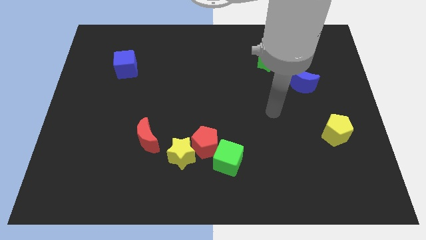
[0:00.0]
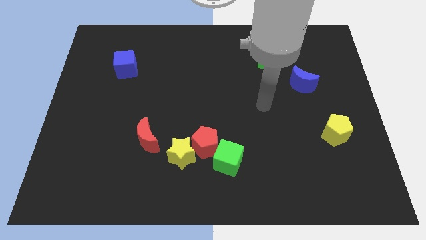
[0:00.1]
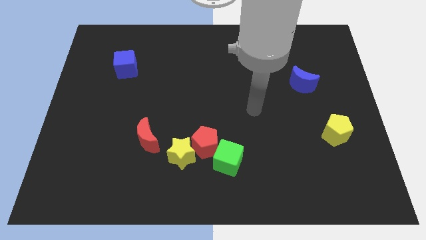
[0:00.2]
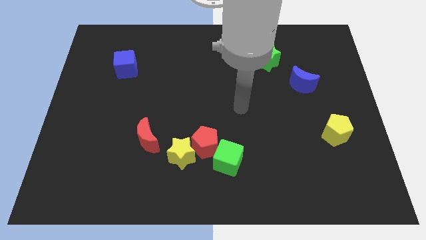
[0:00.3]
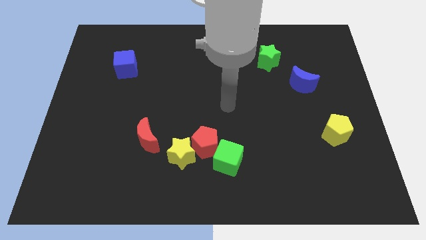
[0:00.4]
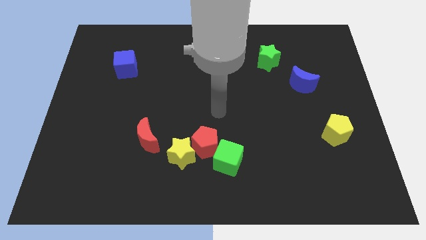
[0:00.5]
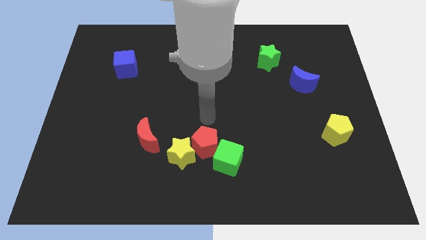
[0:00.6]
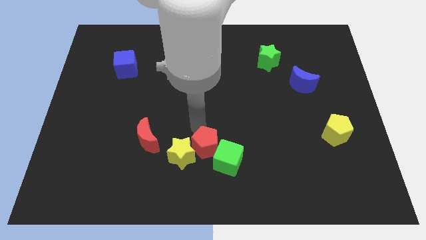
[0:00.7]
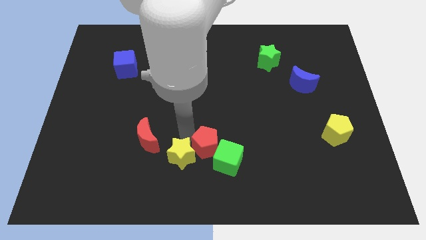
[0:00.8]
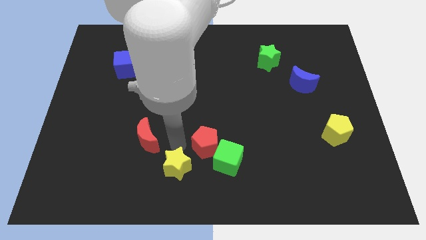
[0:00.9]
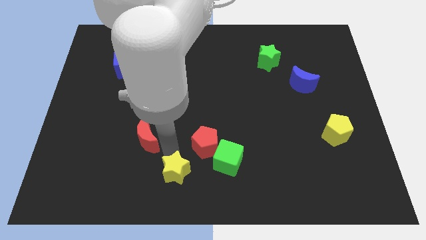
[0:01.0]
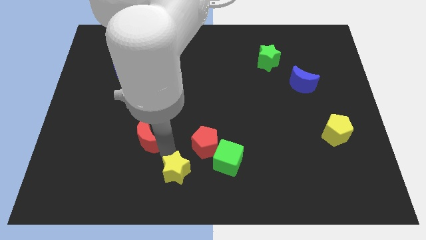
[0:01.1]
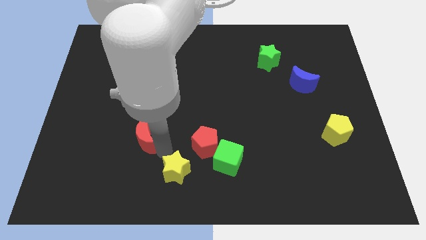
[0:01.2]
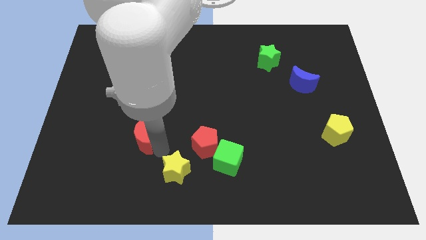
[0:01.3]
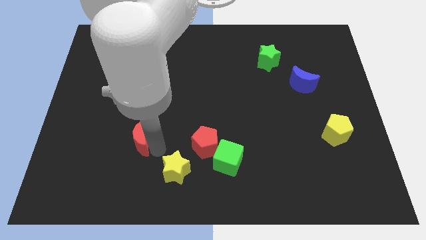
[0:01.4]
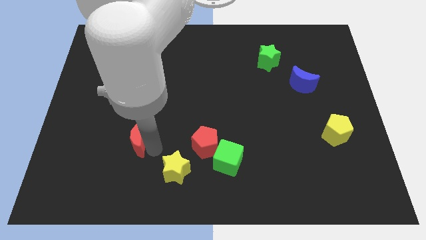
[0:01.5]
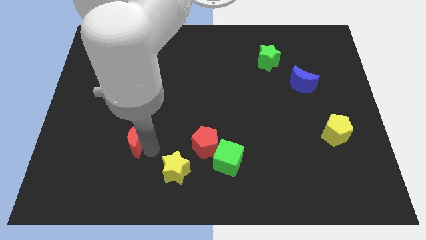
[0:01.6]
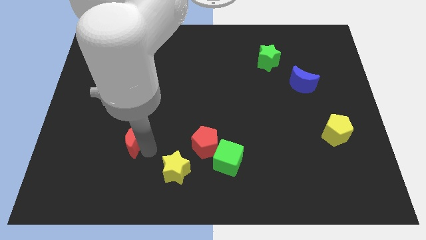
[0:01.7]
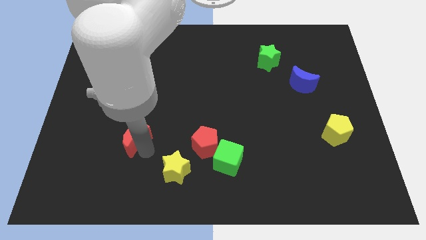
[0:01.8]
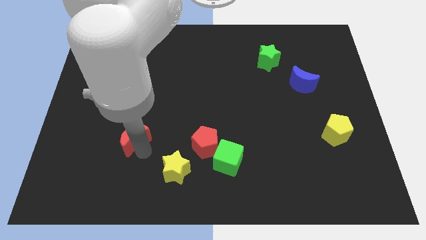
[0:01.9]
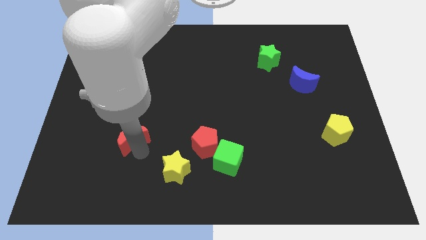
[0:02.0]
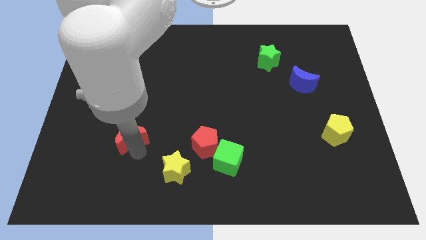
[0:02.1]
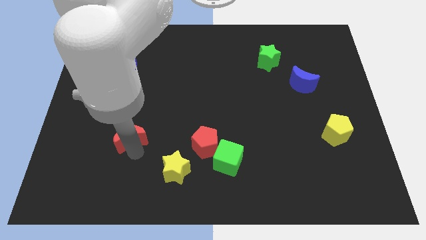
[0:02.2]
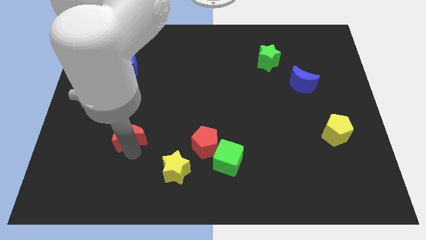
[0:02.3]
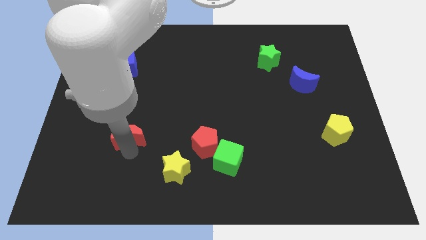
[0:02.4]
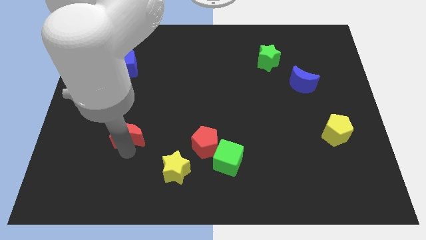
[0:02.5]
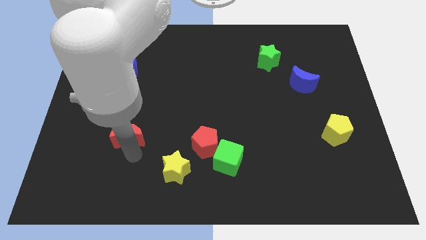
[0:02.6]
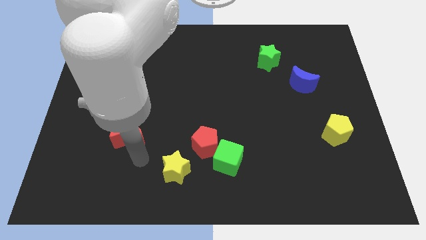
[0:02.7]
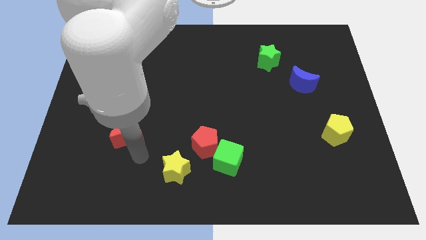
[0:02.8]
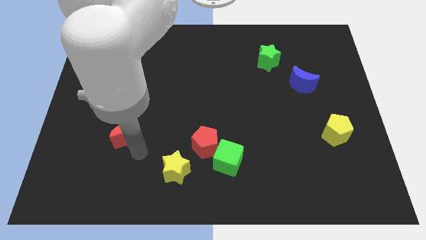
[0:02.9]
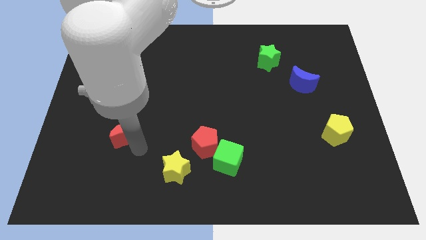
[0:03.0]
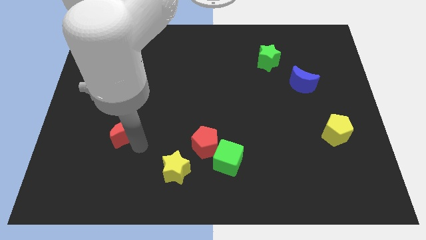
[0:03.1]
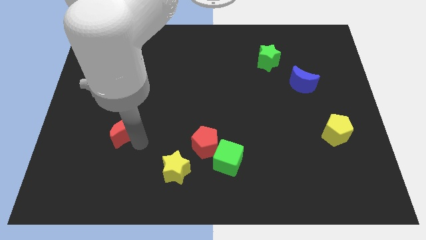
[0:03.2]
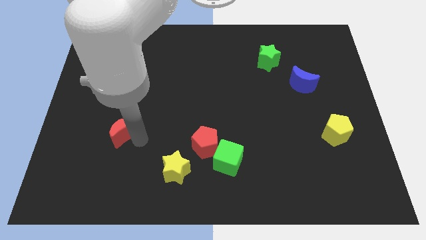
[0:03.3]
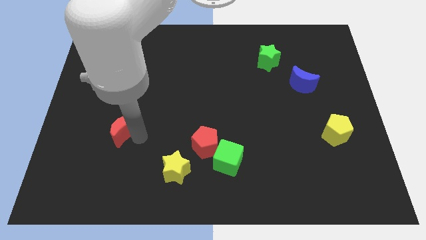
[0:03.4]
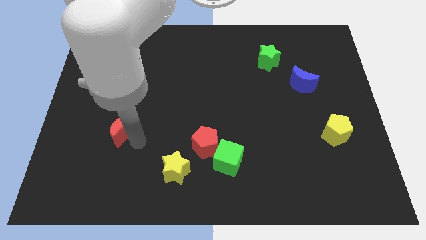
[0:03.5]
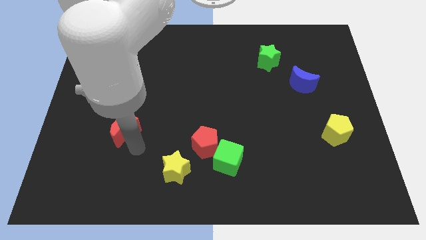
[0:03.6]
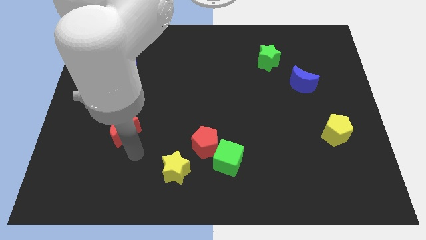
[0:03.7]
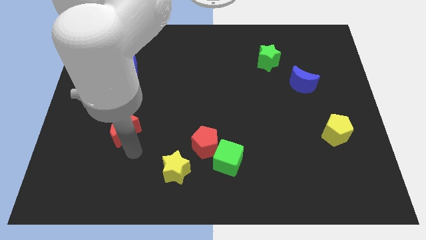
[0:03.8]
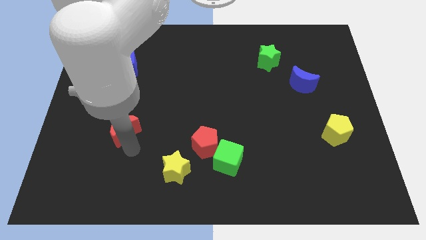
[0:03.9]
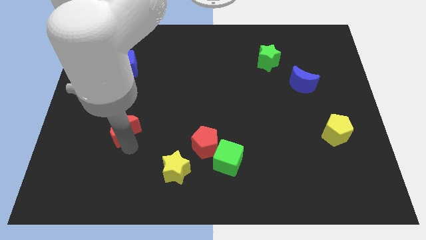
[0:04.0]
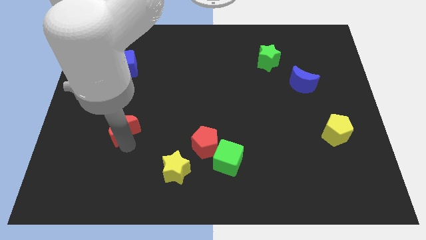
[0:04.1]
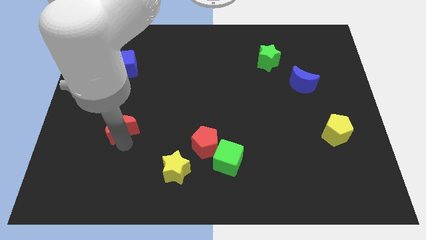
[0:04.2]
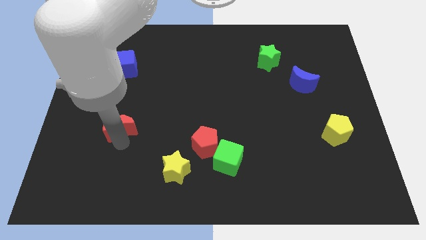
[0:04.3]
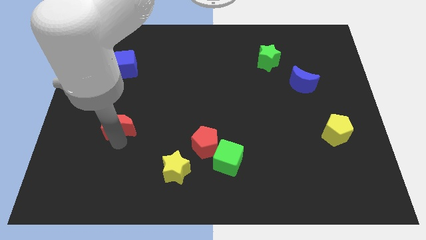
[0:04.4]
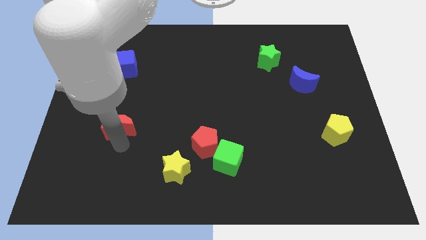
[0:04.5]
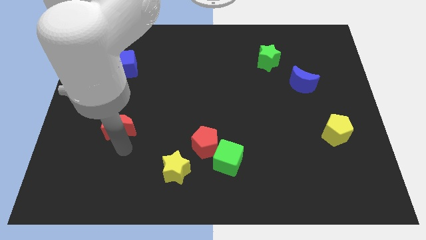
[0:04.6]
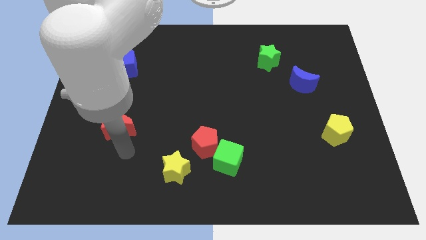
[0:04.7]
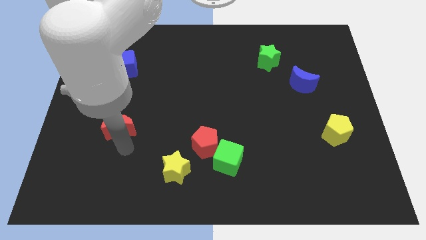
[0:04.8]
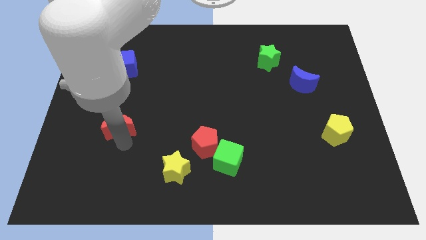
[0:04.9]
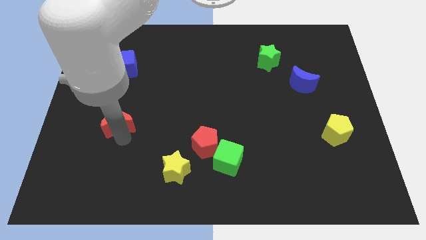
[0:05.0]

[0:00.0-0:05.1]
slightly move the red moon upwards and to the left diagonally

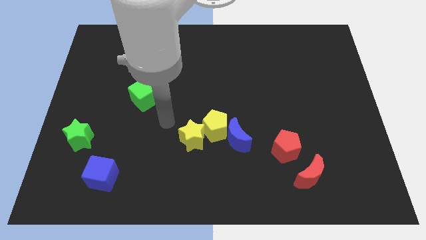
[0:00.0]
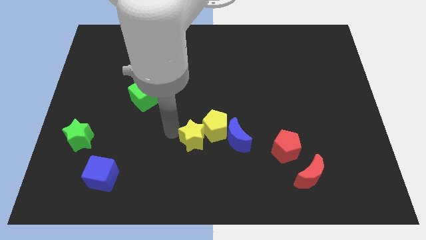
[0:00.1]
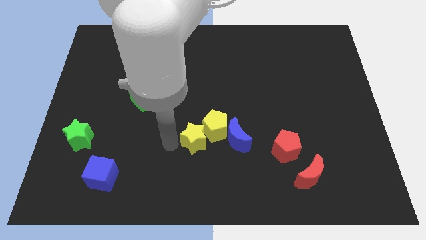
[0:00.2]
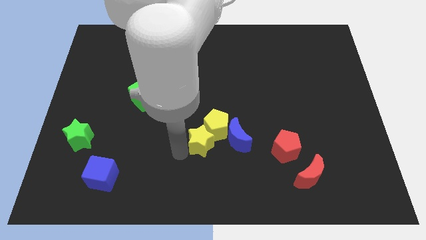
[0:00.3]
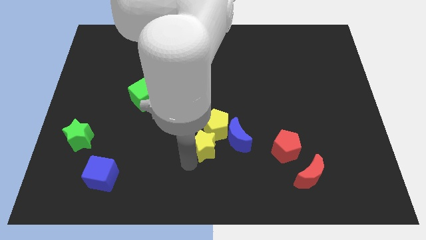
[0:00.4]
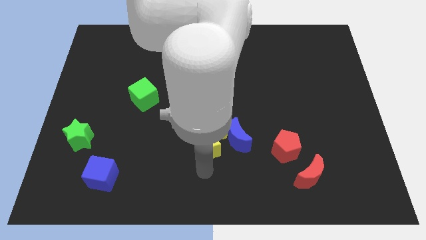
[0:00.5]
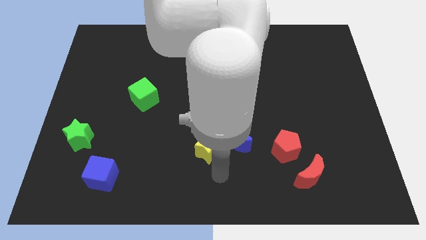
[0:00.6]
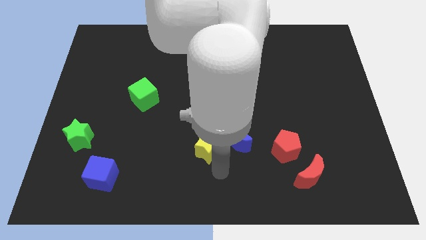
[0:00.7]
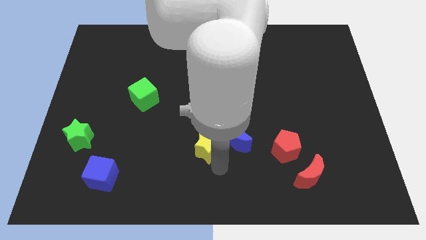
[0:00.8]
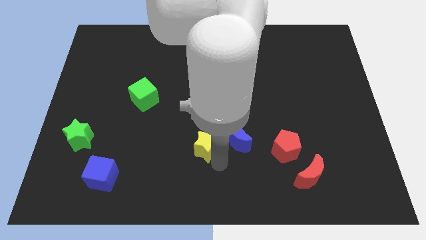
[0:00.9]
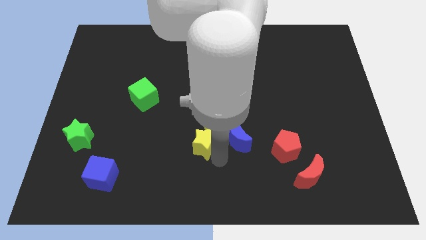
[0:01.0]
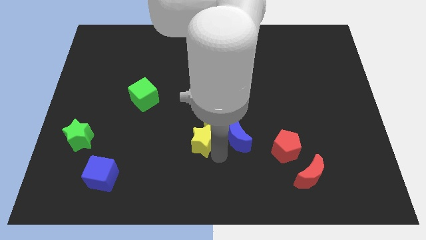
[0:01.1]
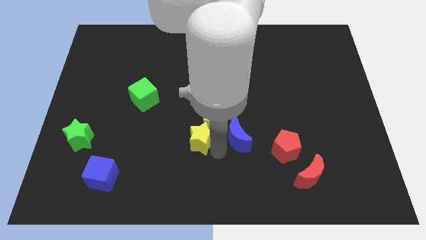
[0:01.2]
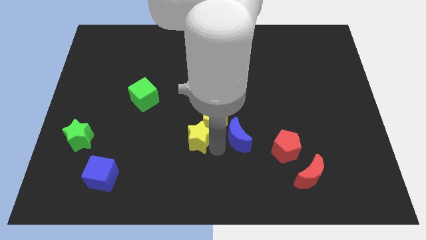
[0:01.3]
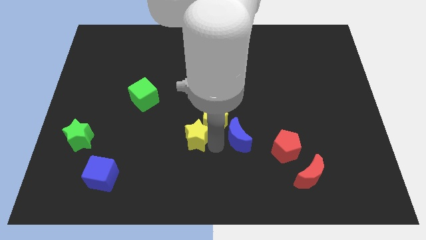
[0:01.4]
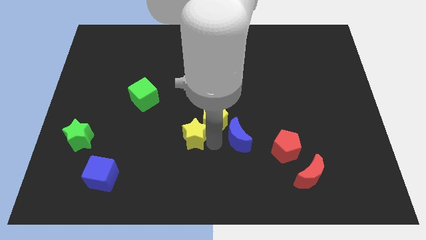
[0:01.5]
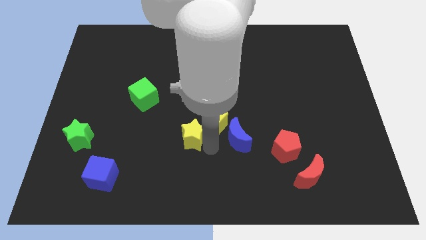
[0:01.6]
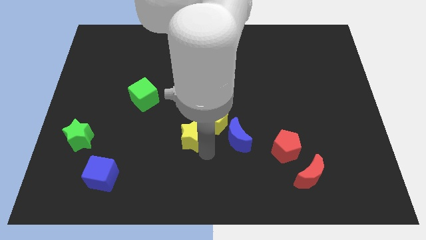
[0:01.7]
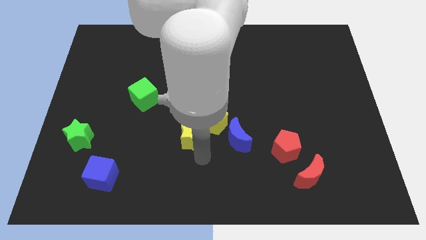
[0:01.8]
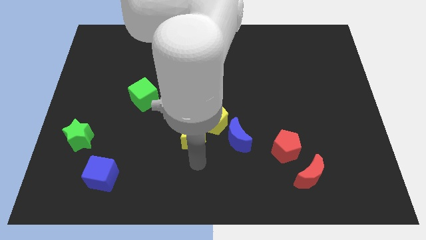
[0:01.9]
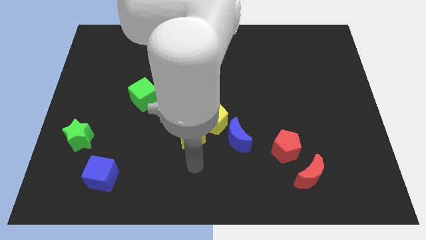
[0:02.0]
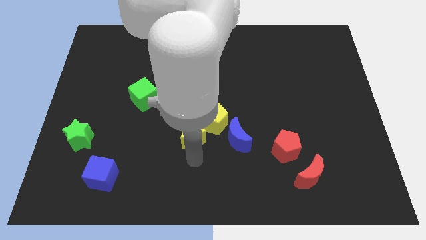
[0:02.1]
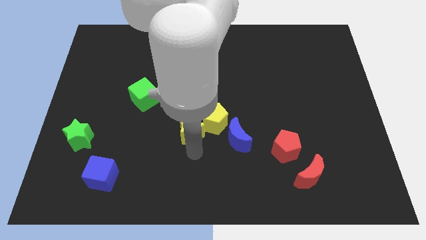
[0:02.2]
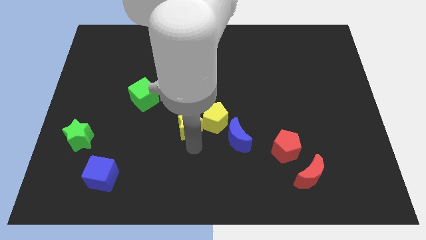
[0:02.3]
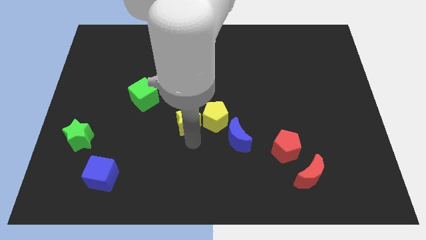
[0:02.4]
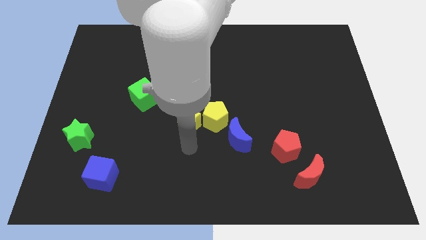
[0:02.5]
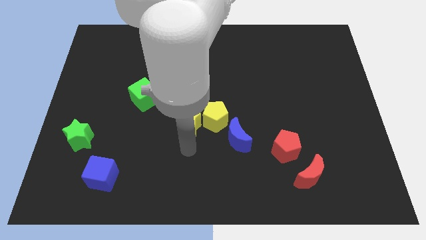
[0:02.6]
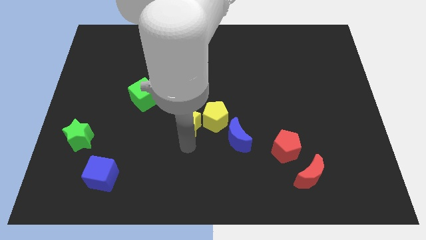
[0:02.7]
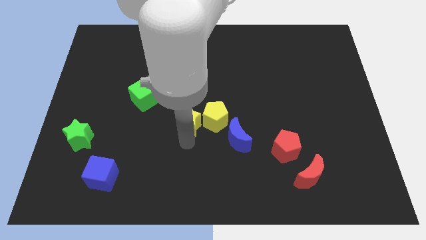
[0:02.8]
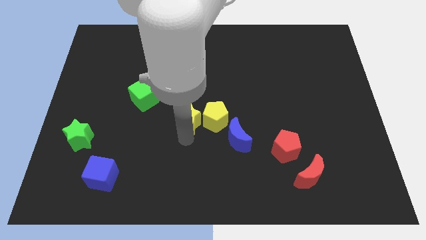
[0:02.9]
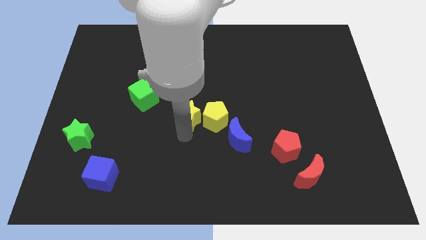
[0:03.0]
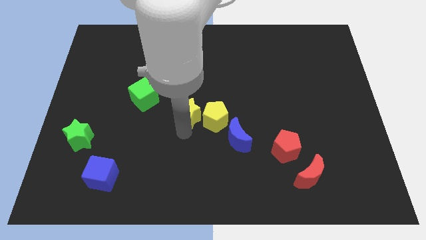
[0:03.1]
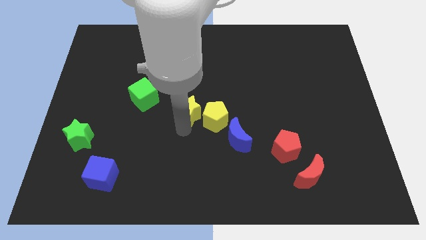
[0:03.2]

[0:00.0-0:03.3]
slightly move the yellow star upwards
